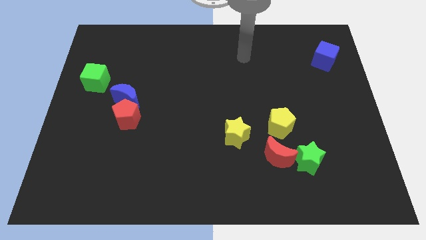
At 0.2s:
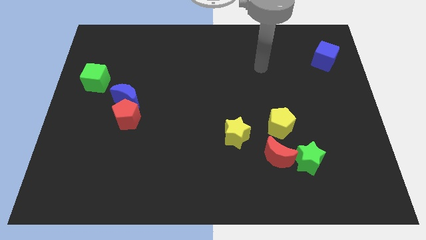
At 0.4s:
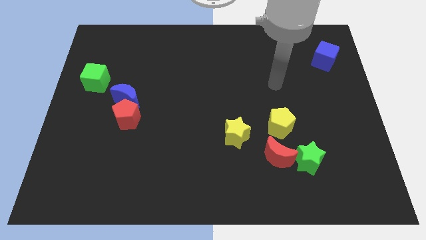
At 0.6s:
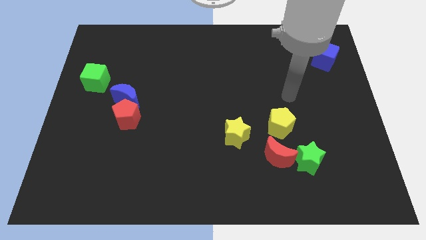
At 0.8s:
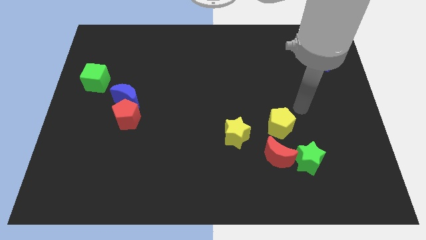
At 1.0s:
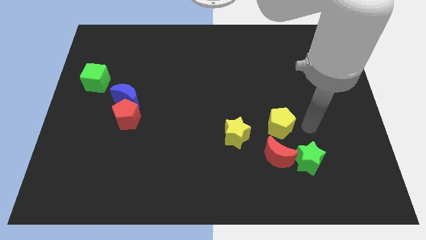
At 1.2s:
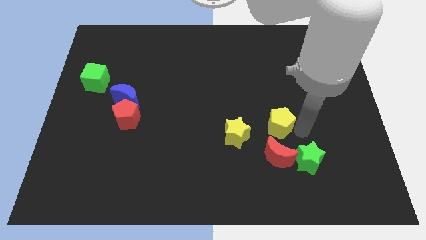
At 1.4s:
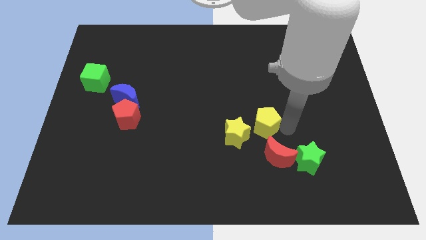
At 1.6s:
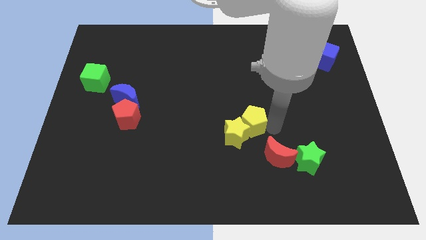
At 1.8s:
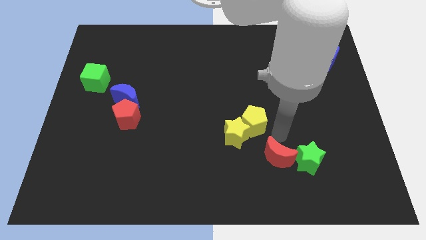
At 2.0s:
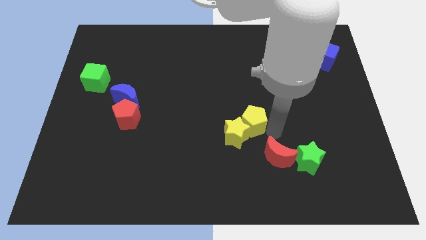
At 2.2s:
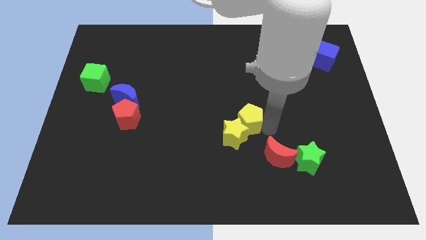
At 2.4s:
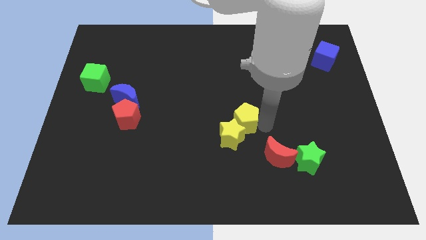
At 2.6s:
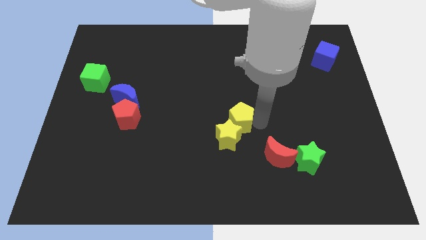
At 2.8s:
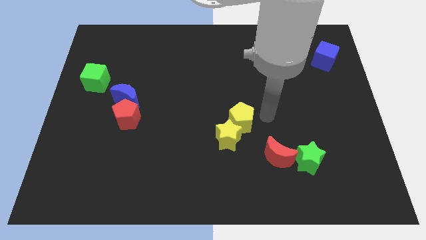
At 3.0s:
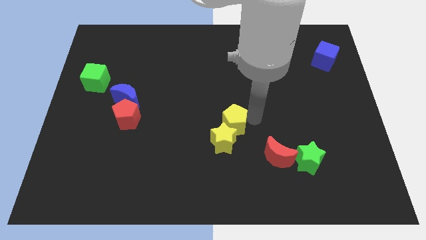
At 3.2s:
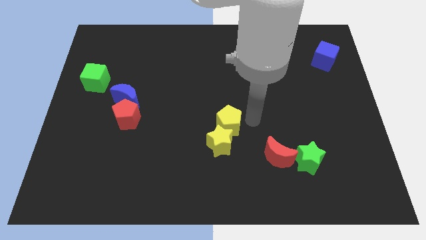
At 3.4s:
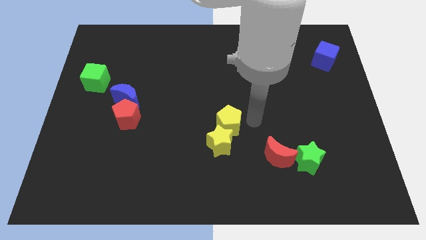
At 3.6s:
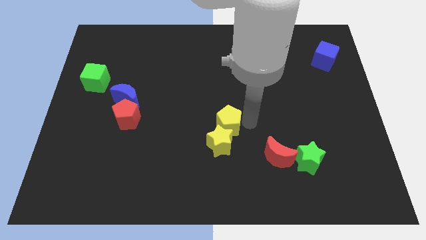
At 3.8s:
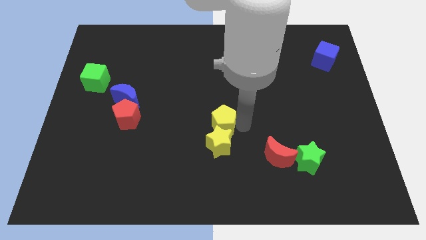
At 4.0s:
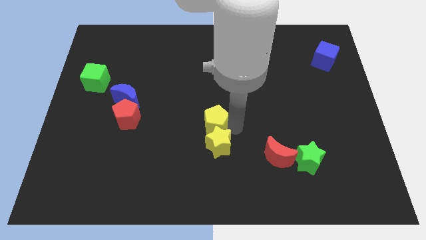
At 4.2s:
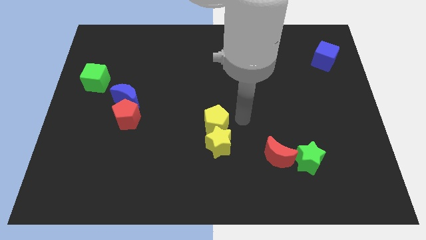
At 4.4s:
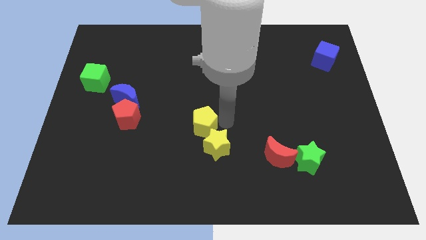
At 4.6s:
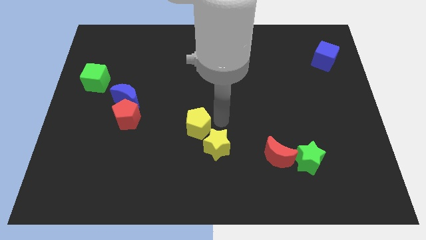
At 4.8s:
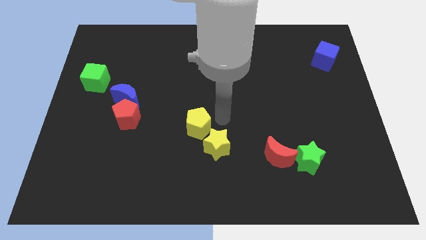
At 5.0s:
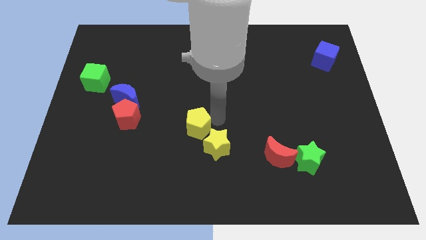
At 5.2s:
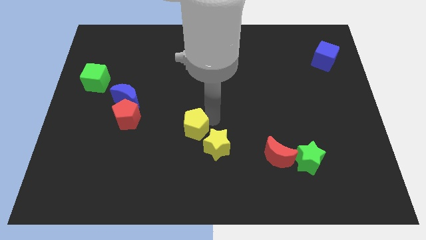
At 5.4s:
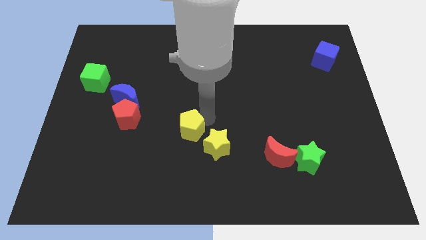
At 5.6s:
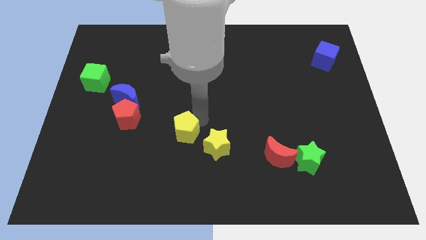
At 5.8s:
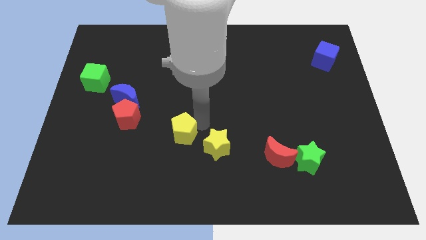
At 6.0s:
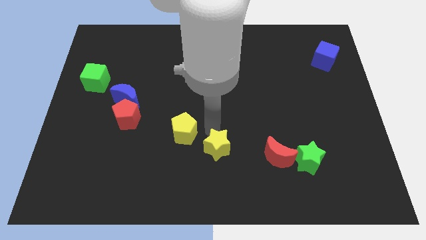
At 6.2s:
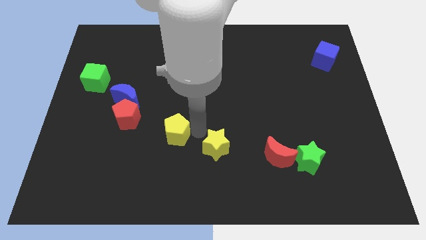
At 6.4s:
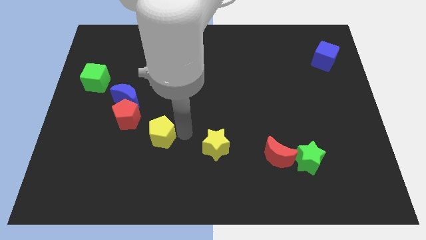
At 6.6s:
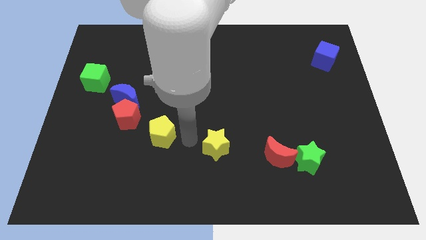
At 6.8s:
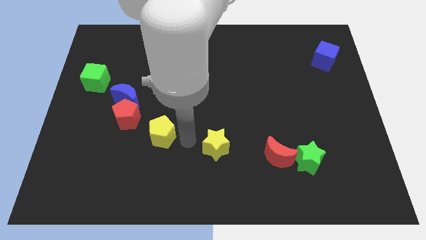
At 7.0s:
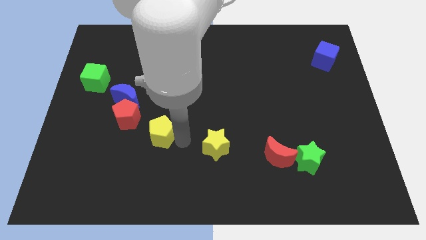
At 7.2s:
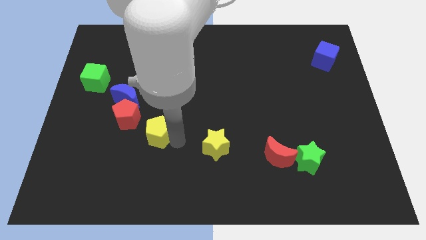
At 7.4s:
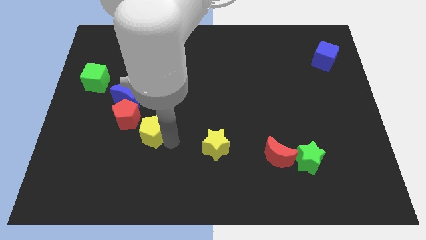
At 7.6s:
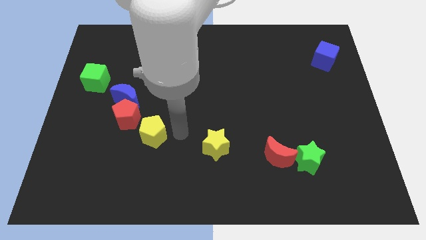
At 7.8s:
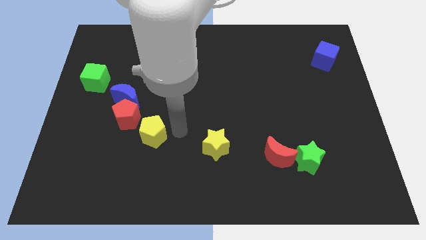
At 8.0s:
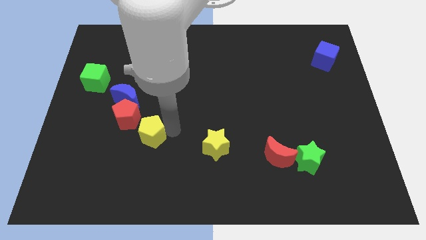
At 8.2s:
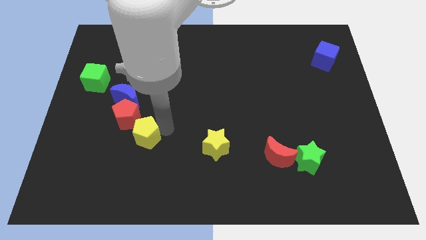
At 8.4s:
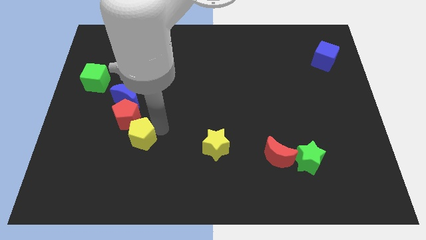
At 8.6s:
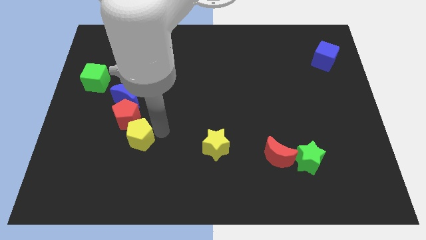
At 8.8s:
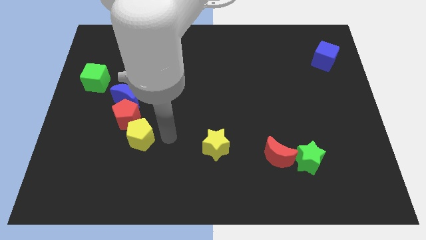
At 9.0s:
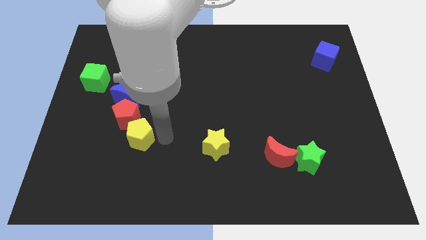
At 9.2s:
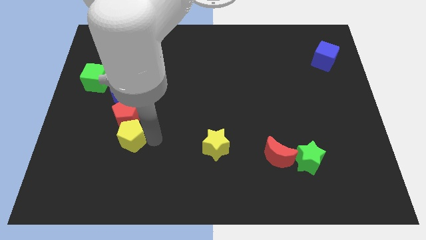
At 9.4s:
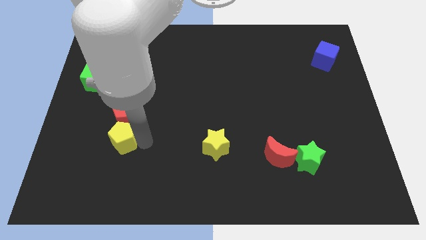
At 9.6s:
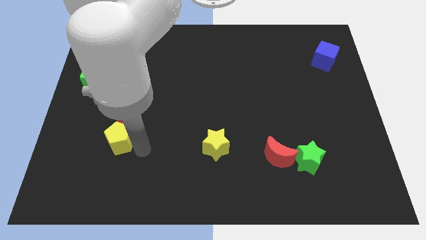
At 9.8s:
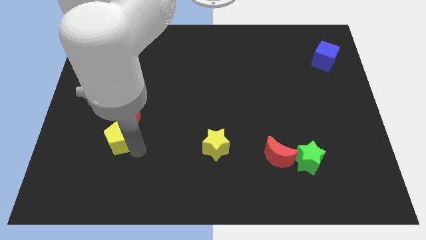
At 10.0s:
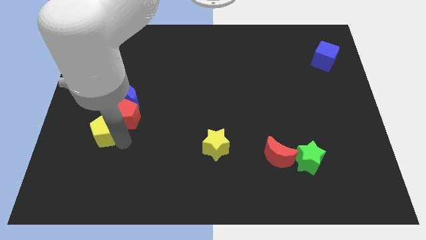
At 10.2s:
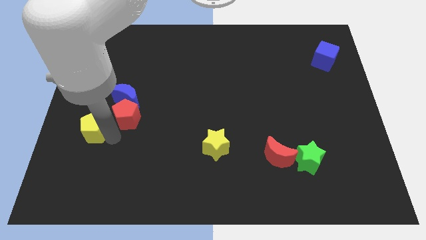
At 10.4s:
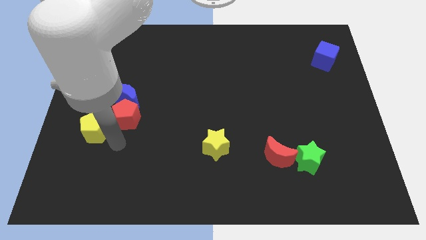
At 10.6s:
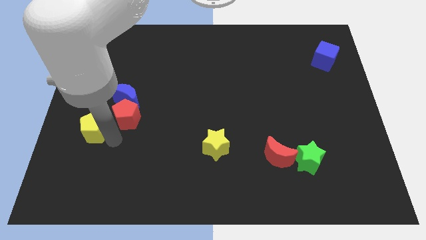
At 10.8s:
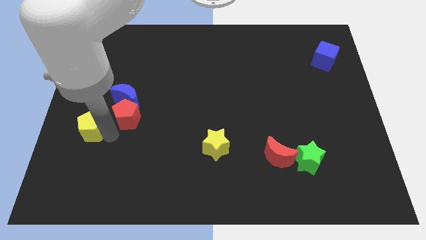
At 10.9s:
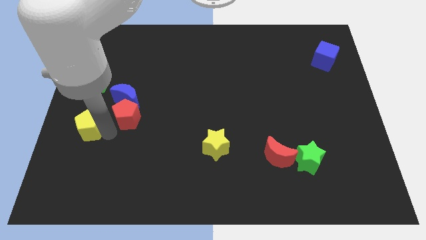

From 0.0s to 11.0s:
move the yellow pentagon to the left side
